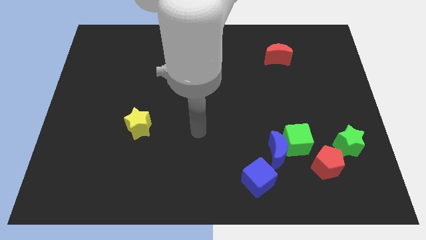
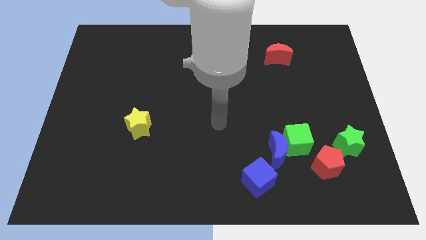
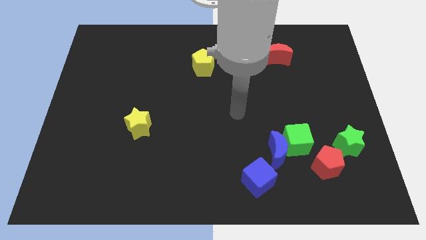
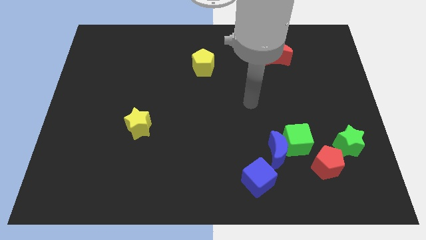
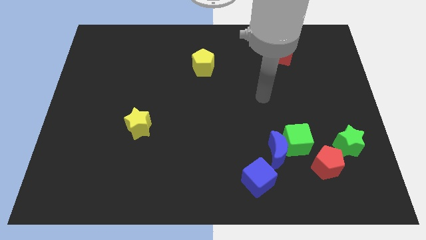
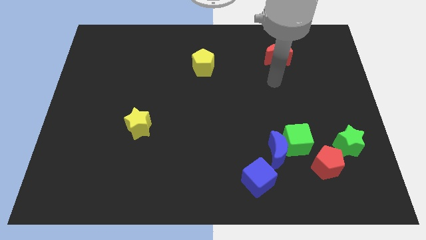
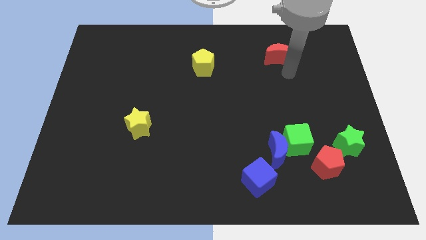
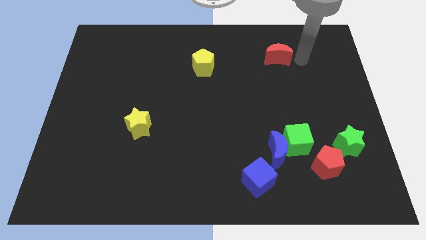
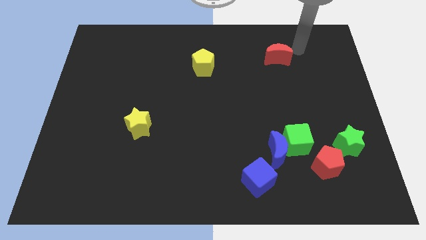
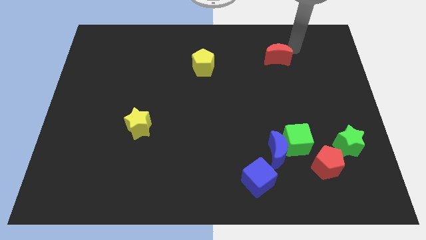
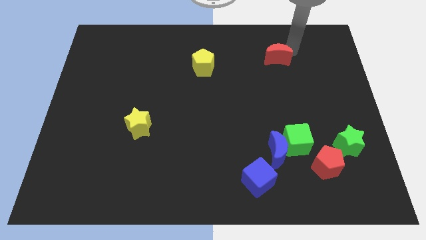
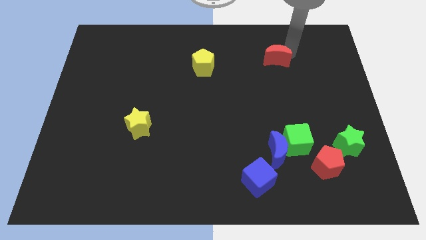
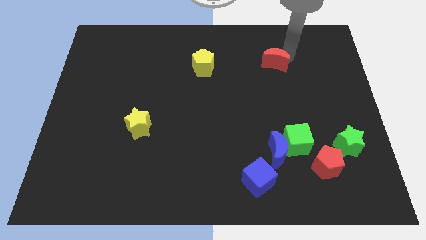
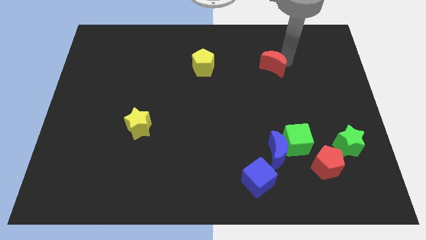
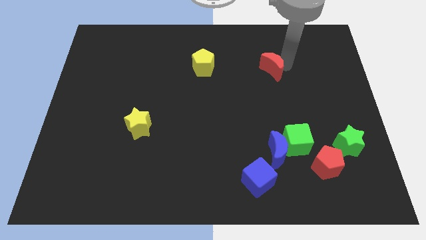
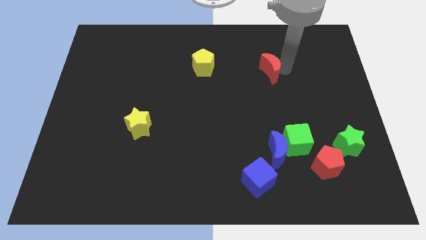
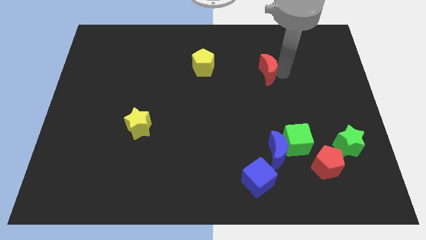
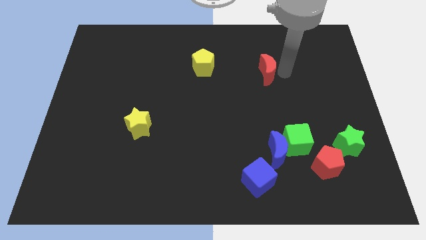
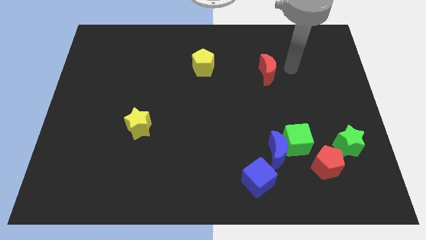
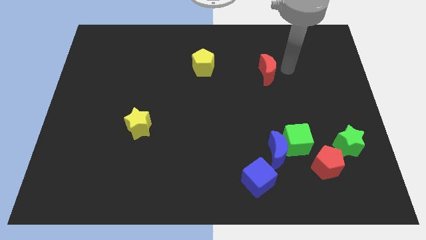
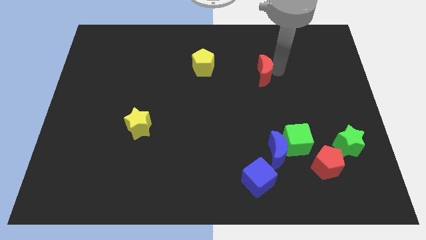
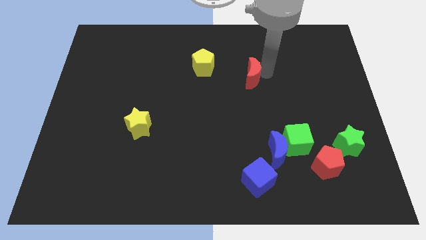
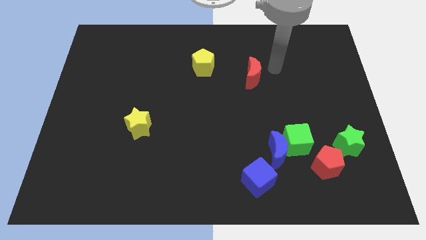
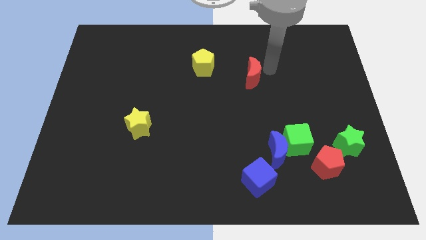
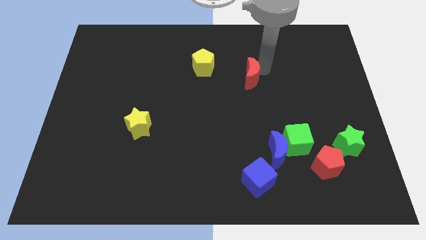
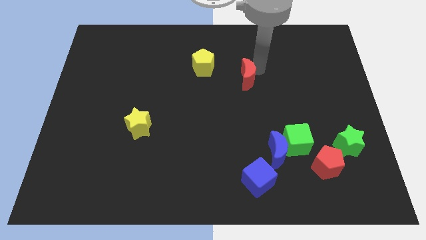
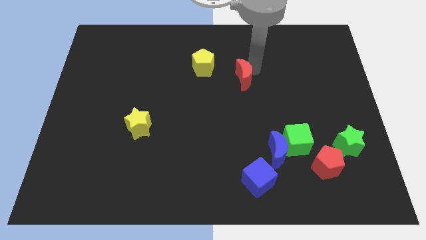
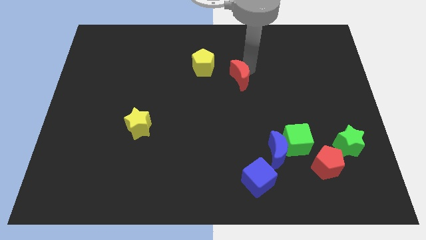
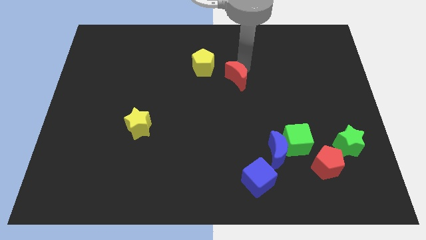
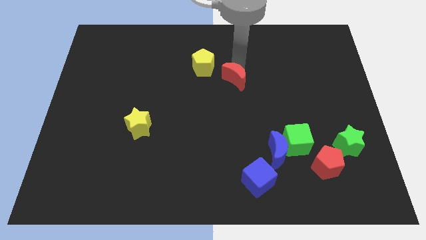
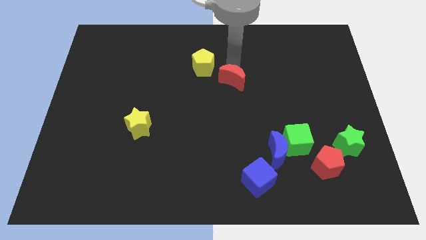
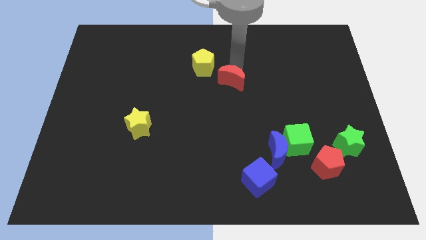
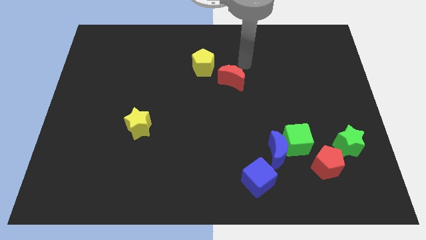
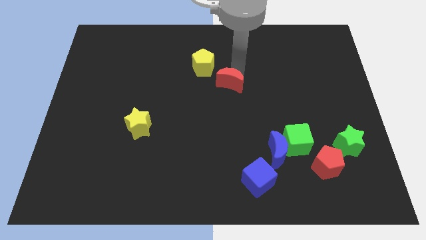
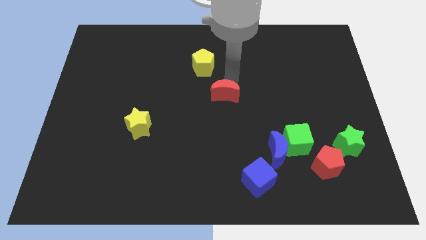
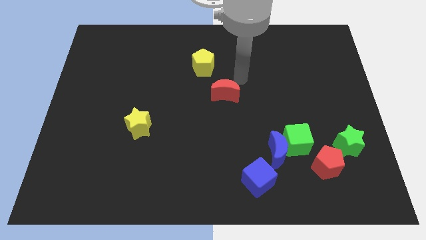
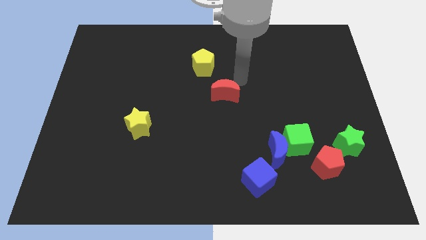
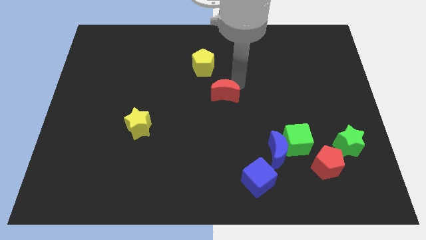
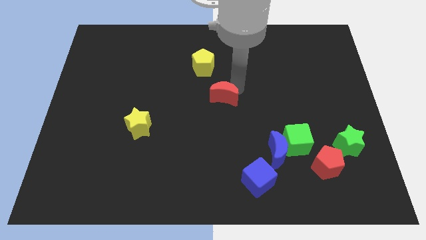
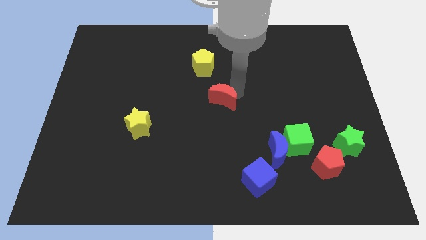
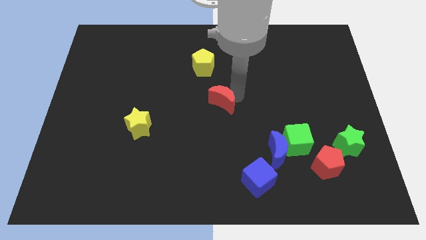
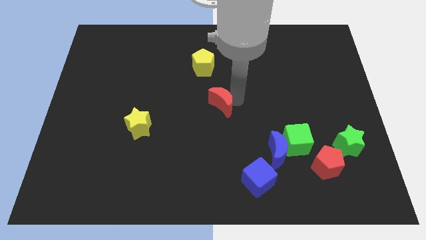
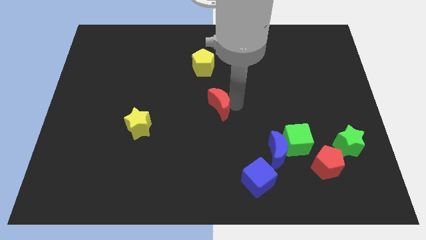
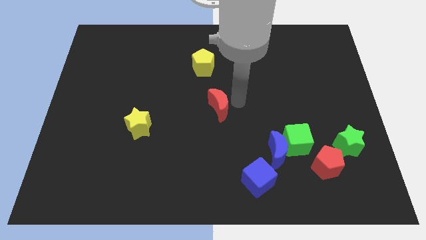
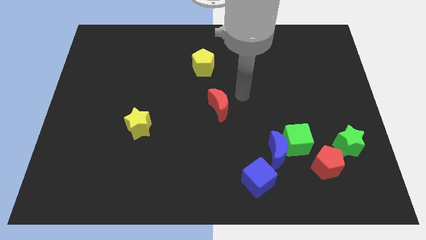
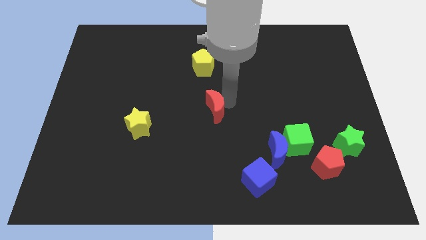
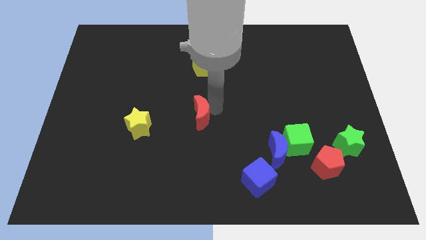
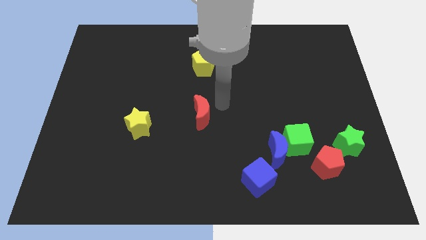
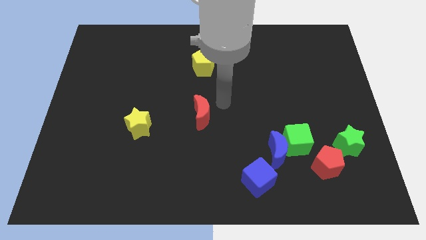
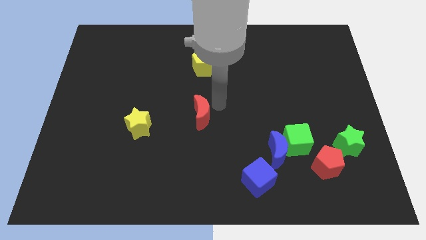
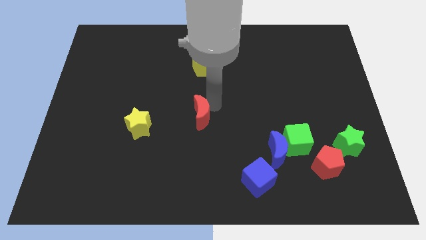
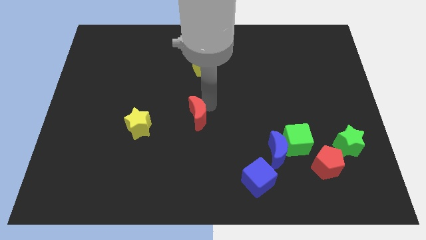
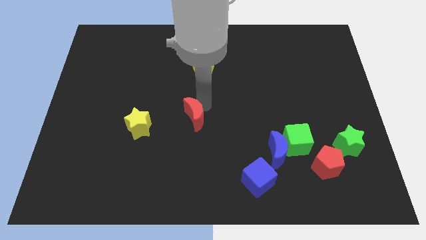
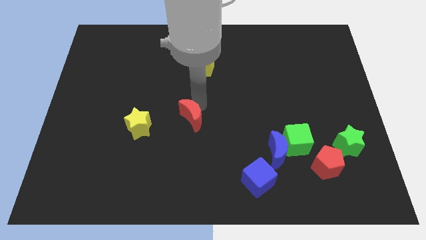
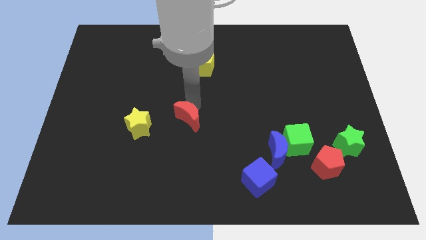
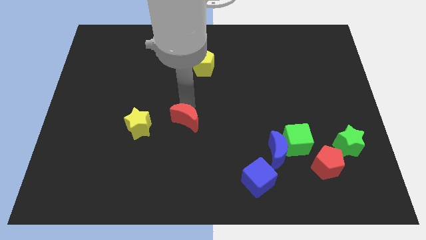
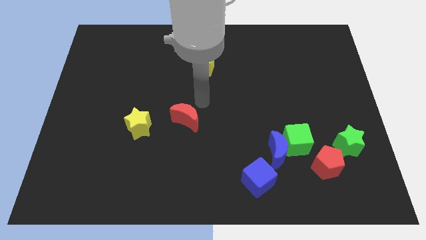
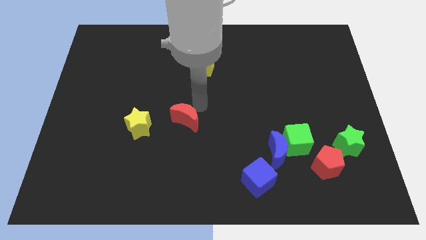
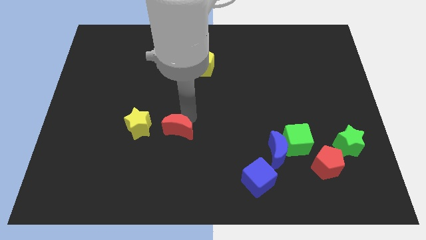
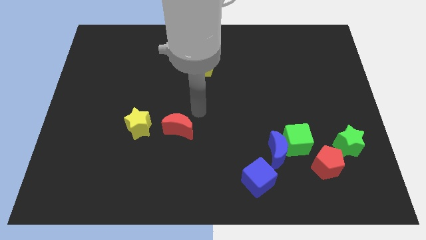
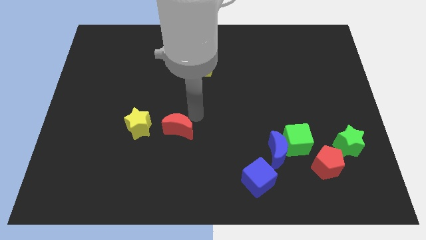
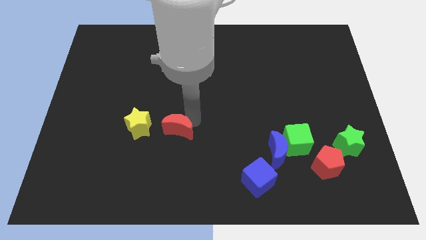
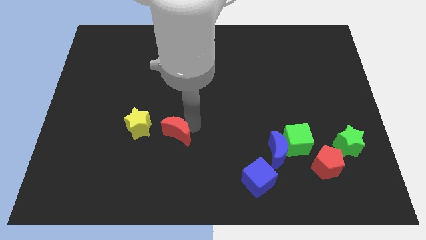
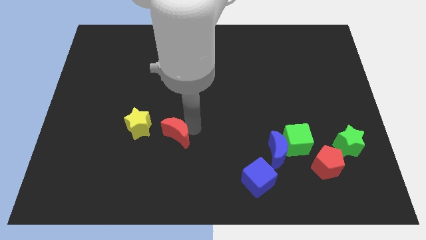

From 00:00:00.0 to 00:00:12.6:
put the red moon diagonally down and to the right of the yellow star

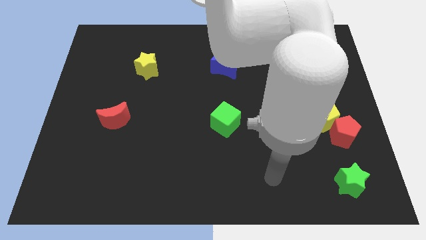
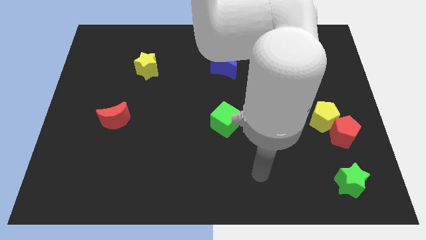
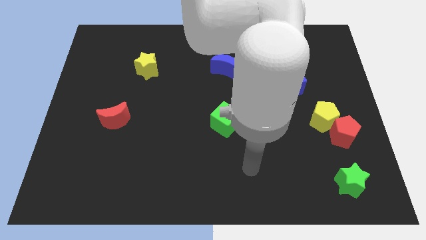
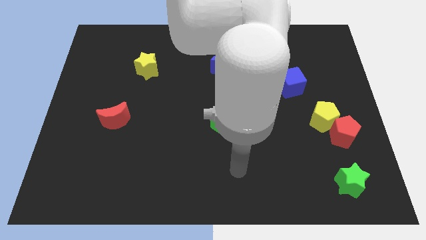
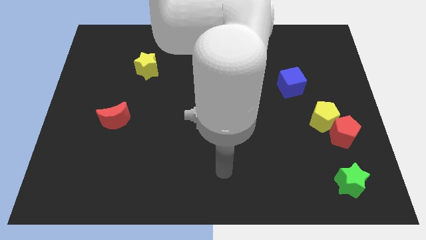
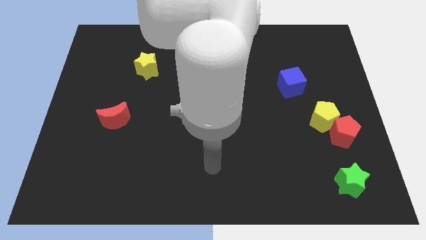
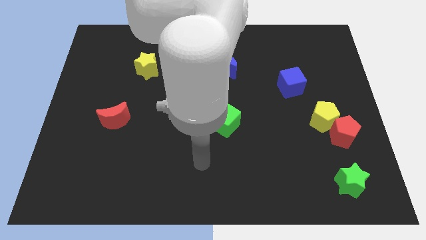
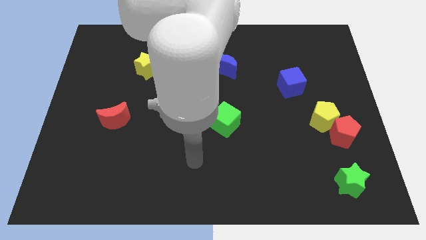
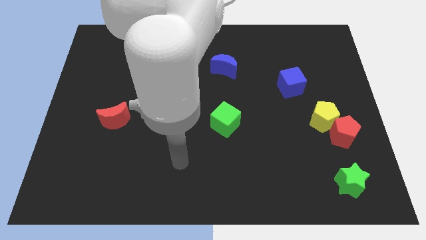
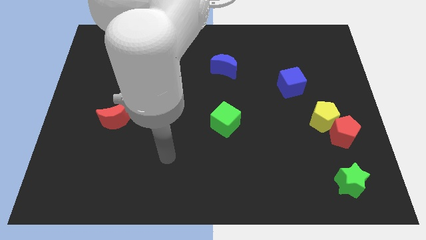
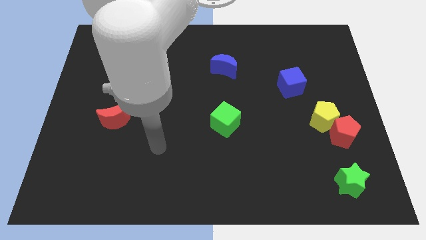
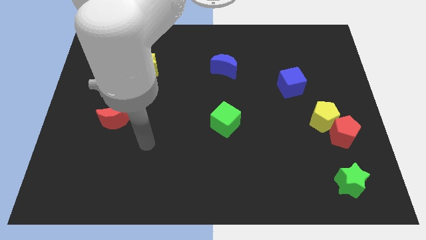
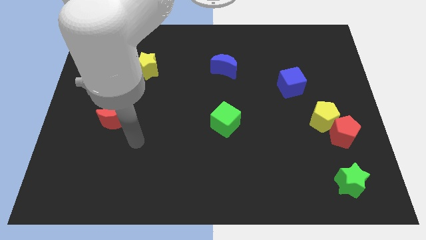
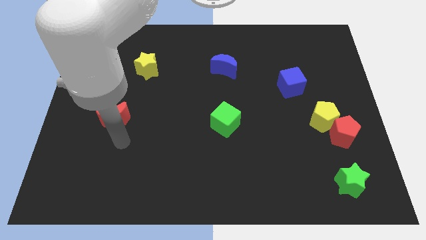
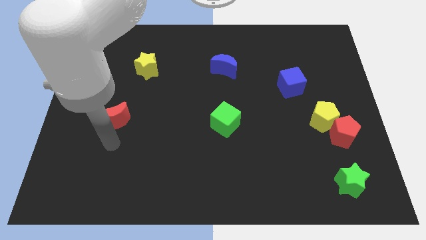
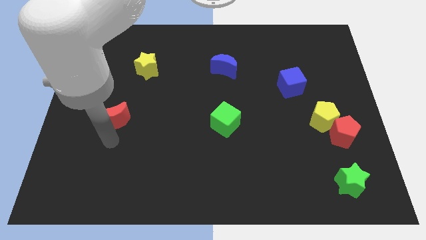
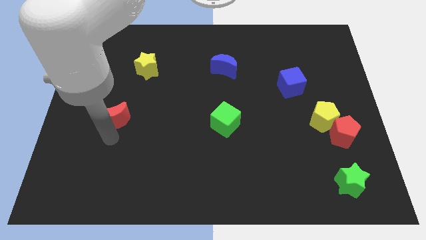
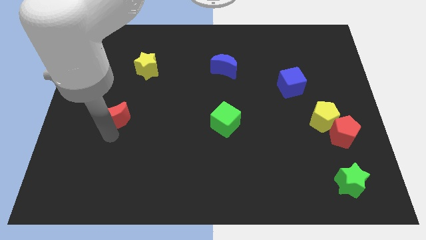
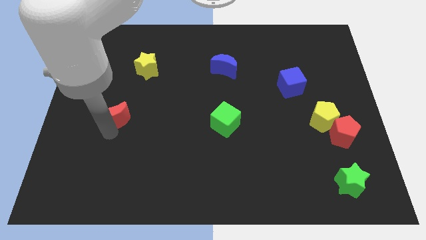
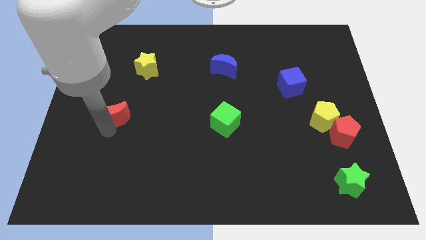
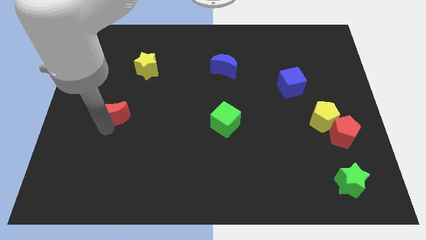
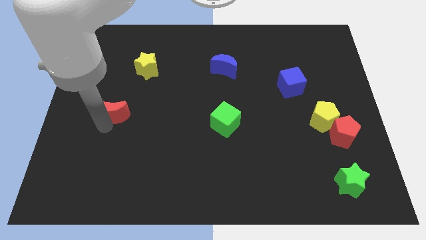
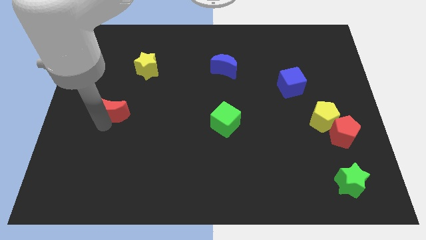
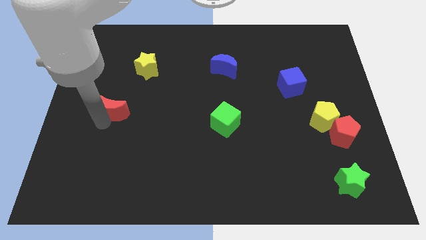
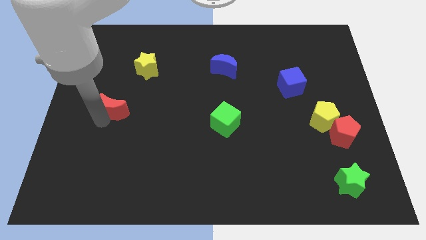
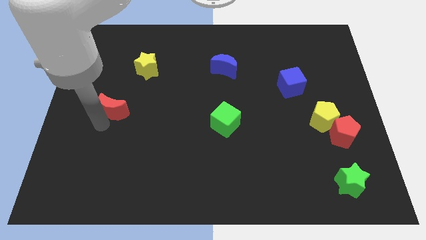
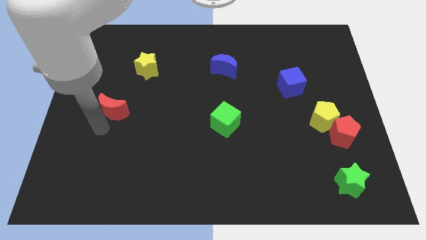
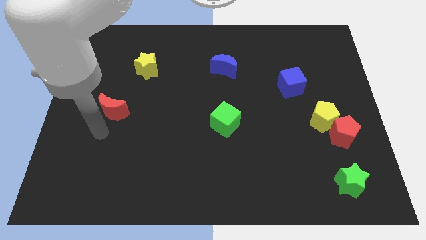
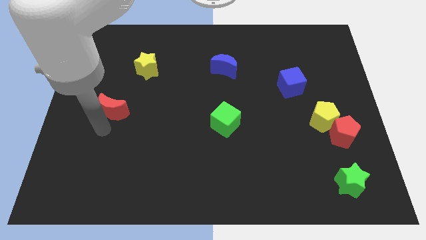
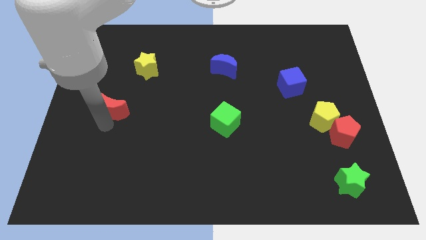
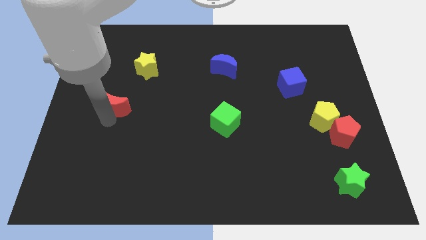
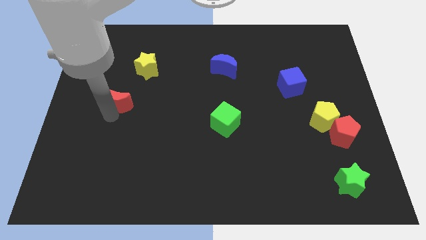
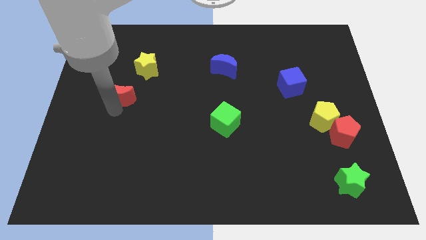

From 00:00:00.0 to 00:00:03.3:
put the red moon diagonally down and to the left of the yellow star
